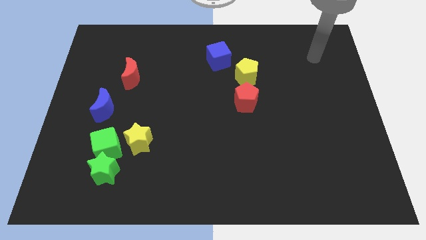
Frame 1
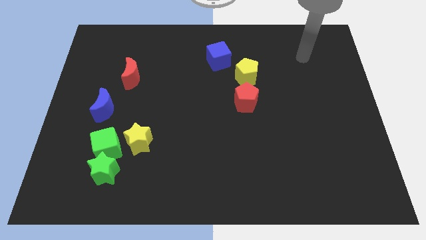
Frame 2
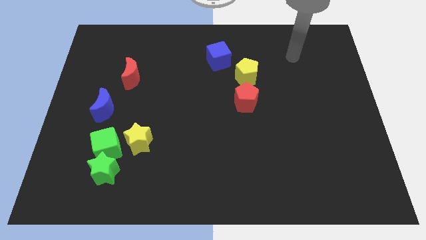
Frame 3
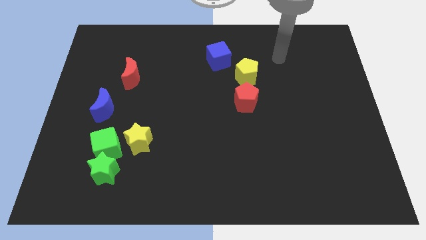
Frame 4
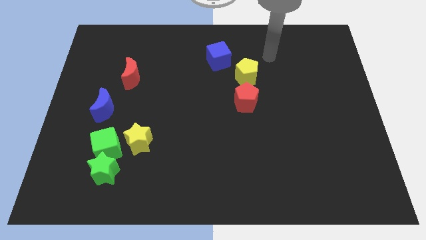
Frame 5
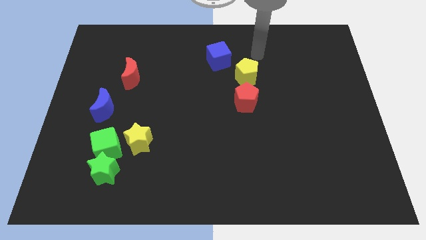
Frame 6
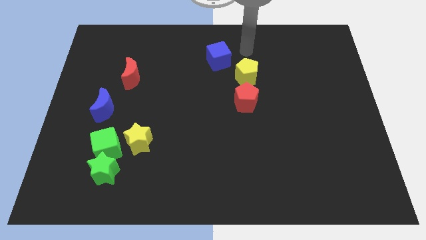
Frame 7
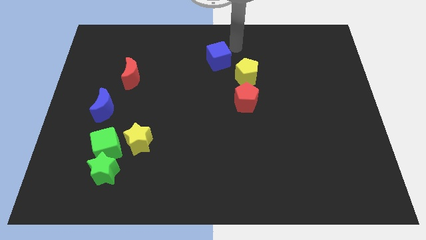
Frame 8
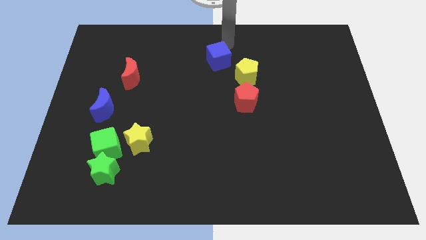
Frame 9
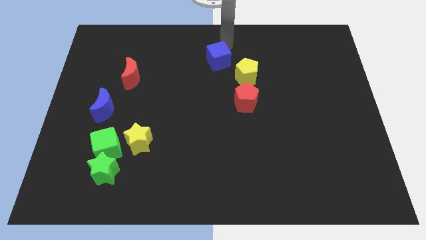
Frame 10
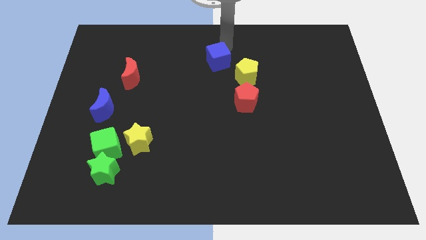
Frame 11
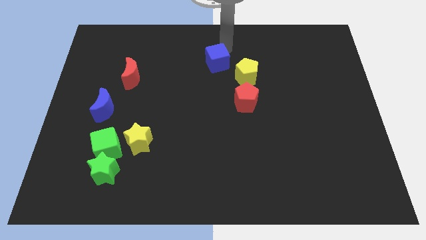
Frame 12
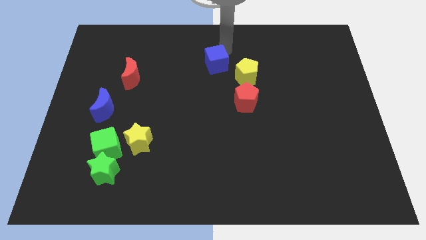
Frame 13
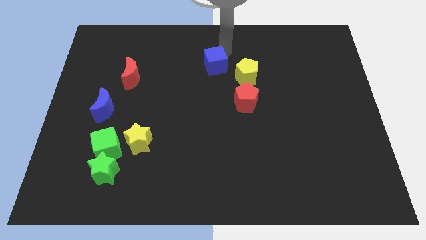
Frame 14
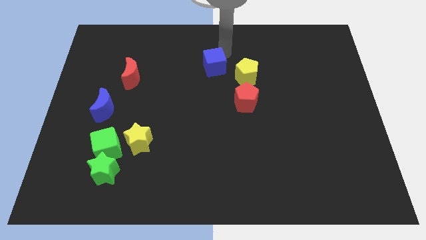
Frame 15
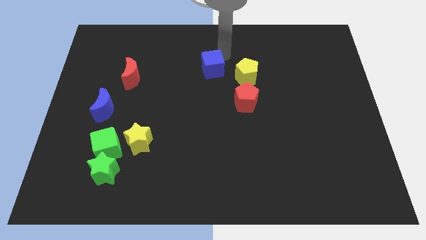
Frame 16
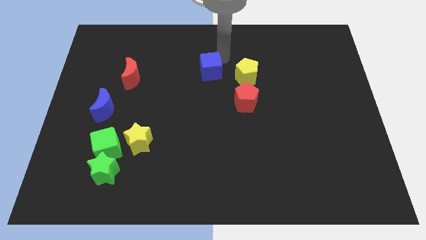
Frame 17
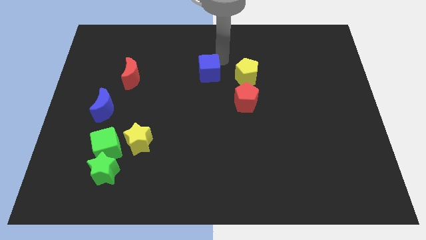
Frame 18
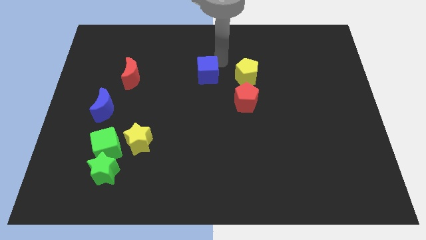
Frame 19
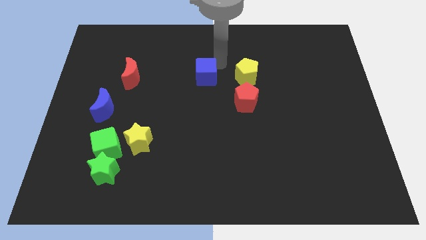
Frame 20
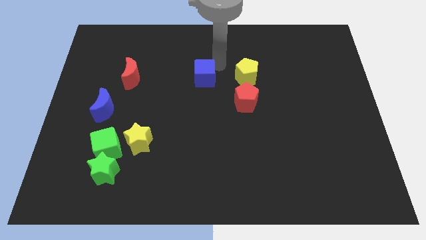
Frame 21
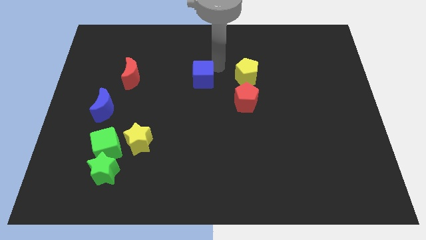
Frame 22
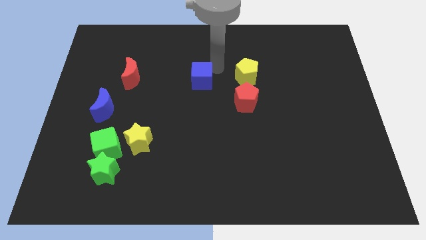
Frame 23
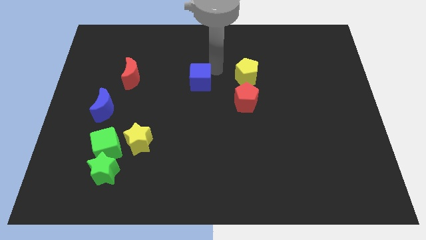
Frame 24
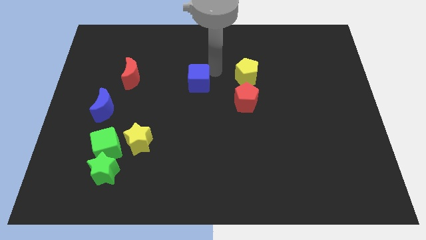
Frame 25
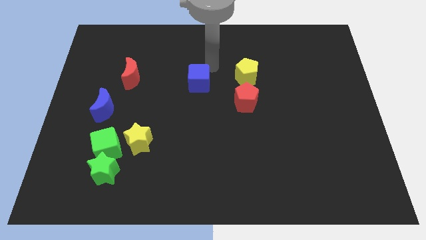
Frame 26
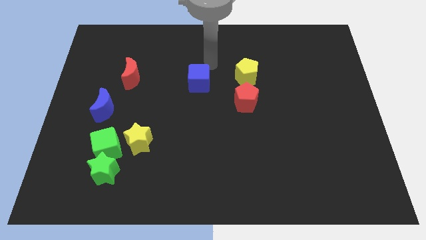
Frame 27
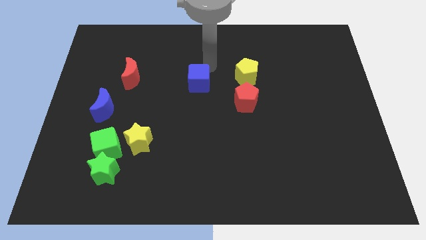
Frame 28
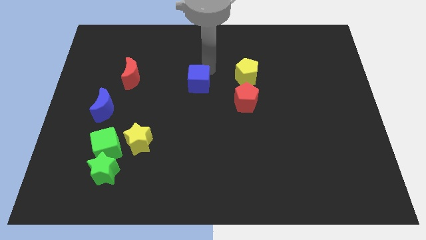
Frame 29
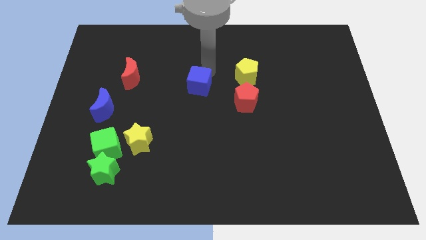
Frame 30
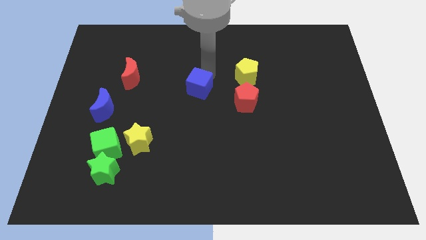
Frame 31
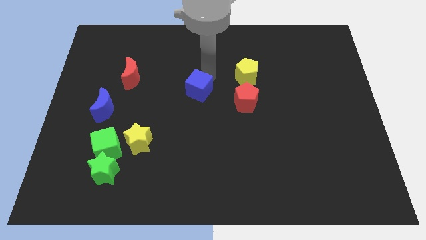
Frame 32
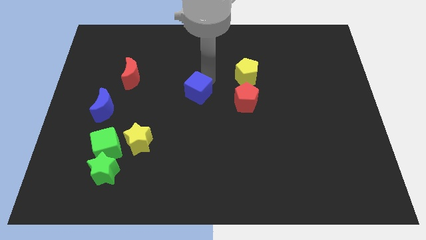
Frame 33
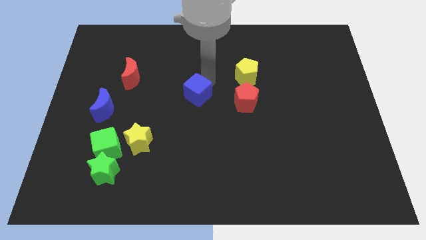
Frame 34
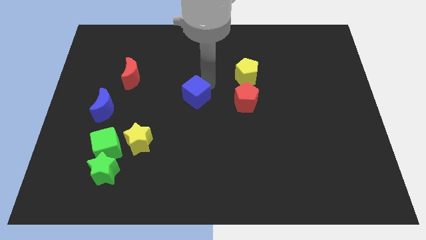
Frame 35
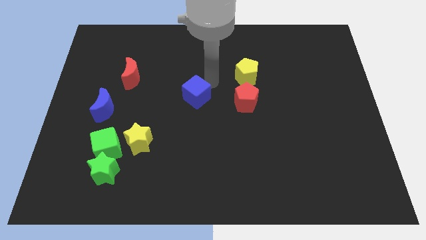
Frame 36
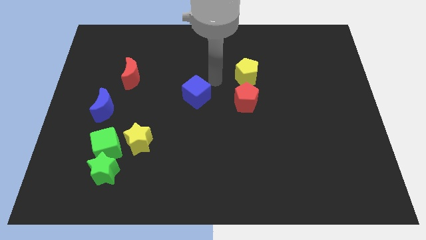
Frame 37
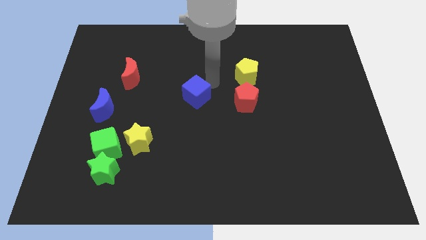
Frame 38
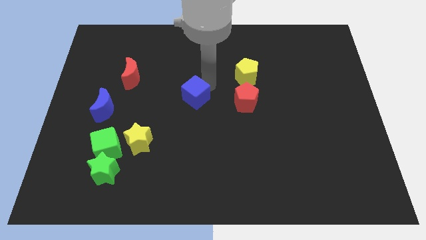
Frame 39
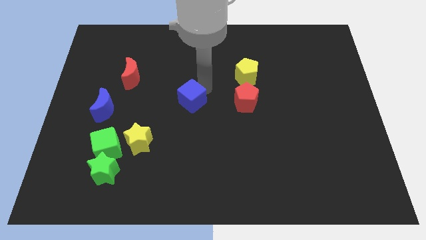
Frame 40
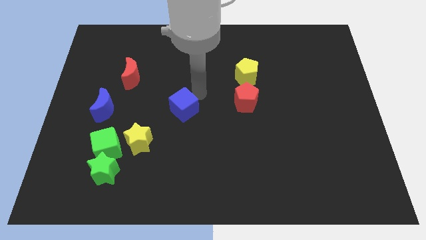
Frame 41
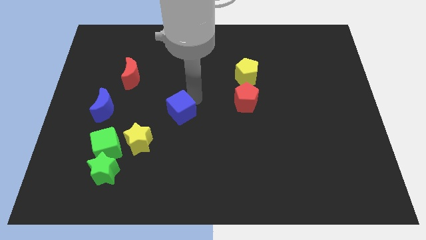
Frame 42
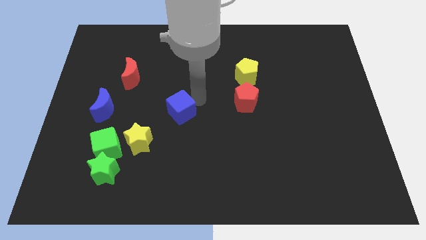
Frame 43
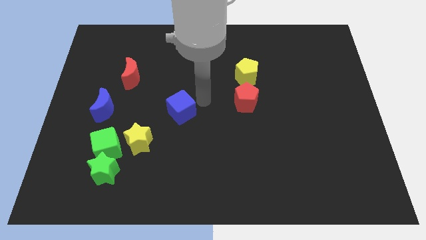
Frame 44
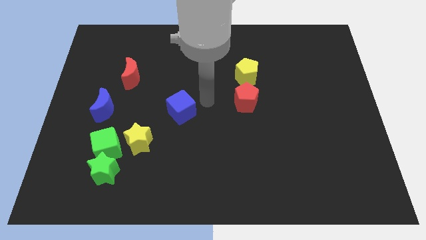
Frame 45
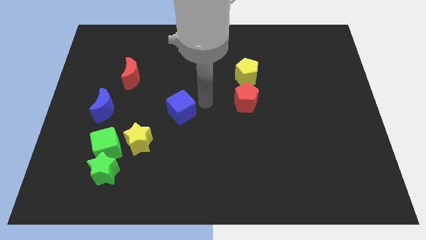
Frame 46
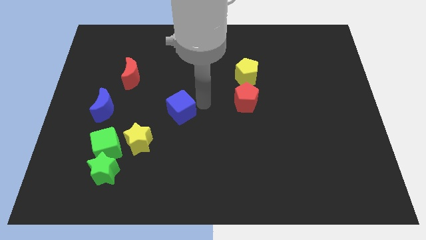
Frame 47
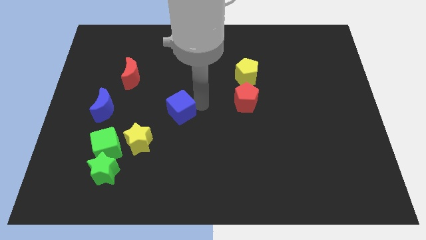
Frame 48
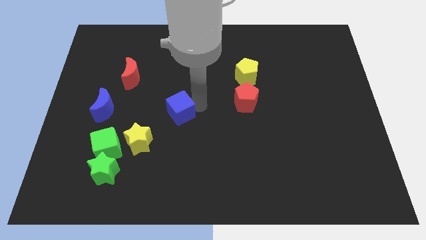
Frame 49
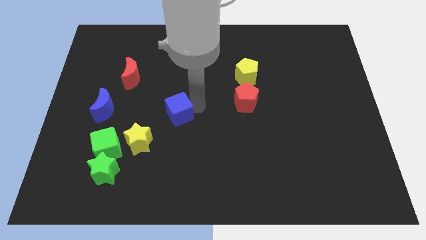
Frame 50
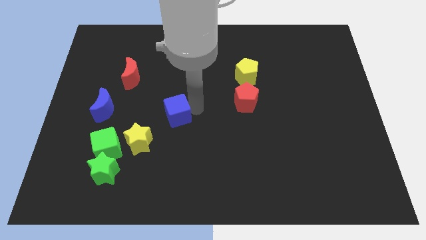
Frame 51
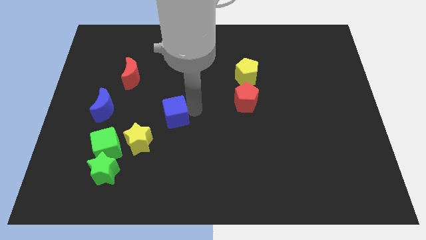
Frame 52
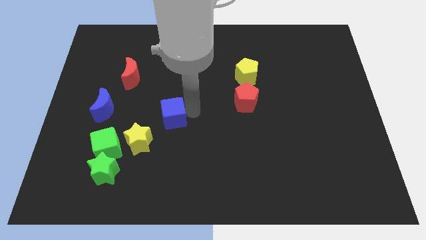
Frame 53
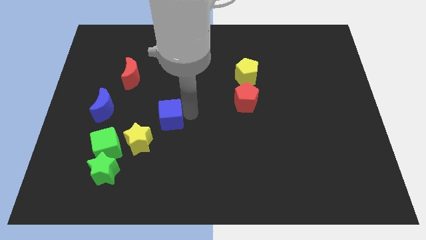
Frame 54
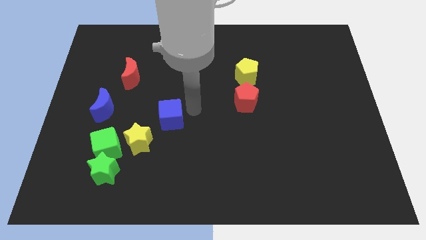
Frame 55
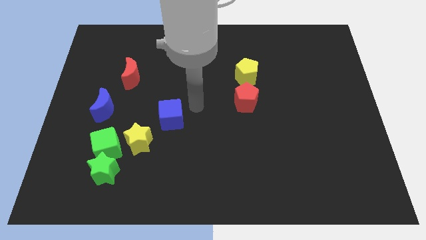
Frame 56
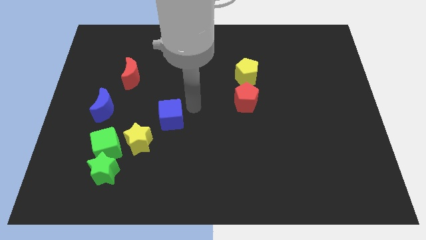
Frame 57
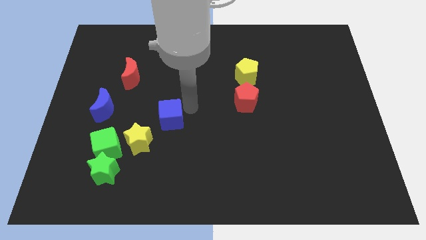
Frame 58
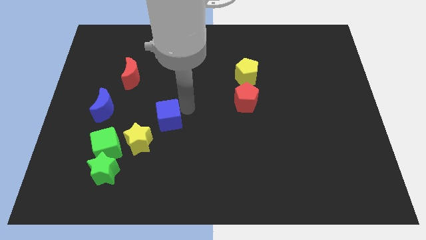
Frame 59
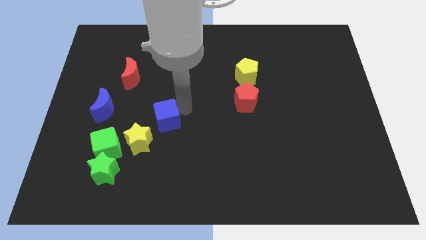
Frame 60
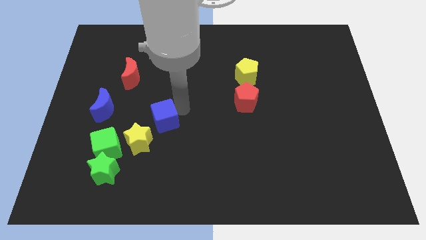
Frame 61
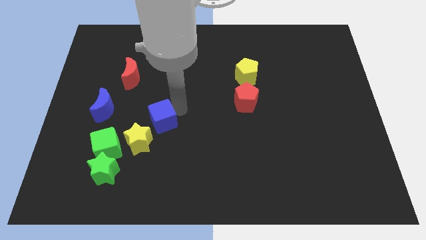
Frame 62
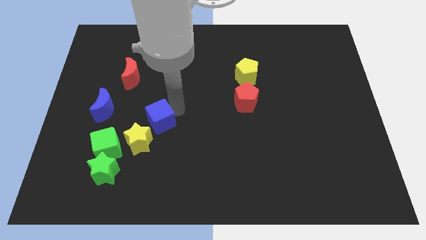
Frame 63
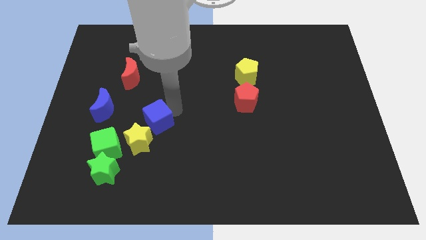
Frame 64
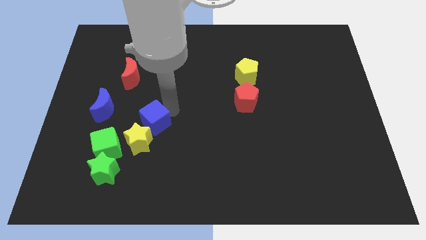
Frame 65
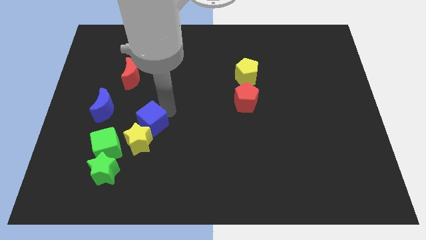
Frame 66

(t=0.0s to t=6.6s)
slide the blue cube close to the yellow star

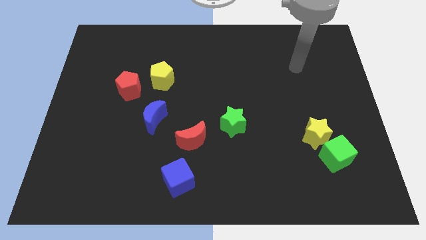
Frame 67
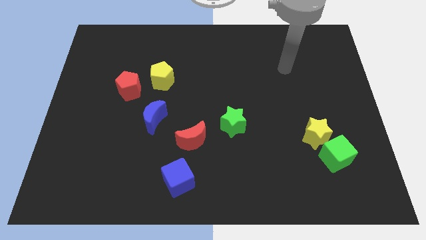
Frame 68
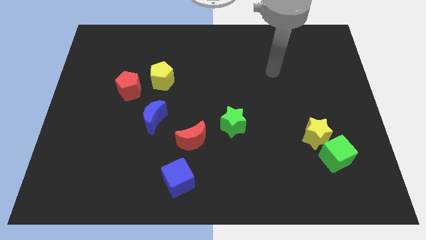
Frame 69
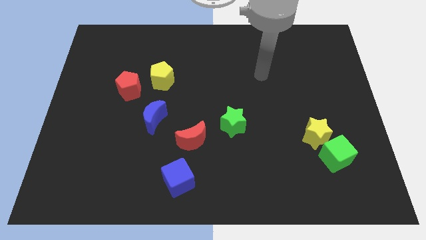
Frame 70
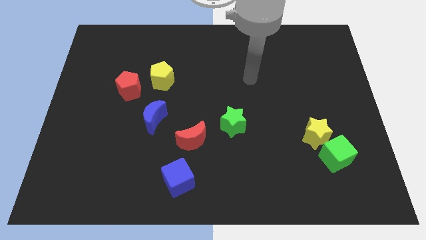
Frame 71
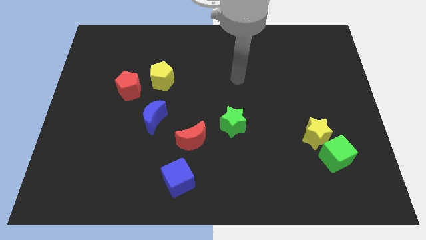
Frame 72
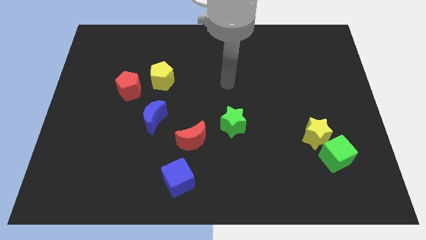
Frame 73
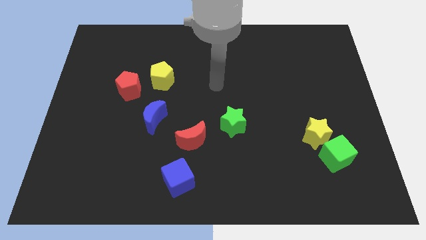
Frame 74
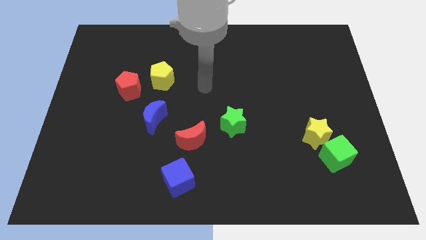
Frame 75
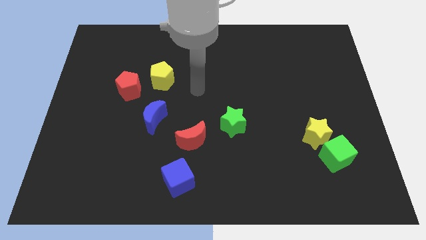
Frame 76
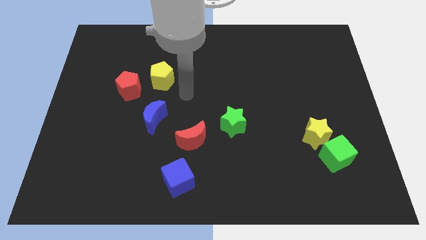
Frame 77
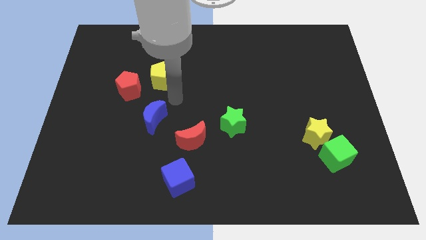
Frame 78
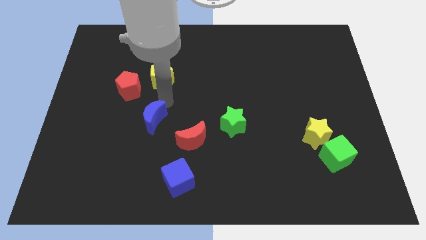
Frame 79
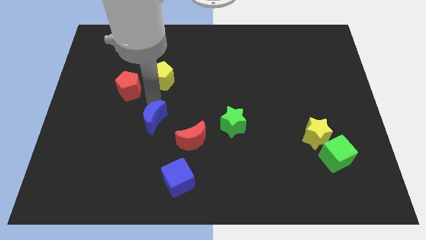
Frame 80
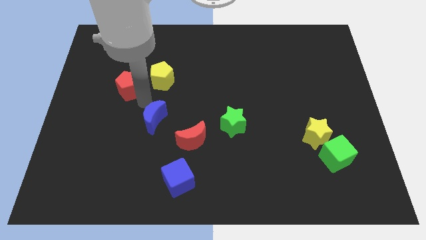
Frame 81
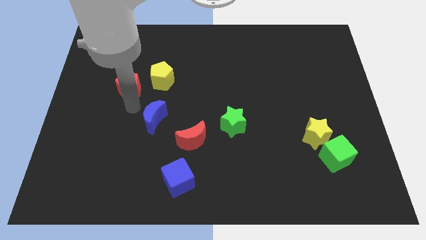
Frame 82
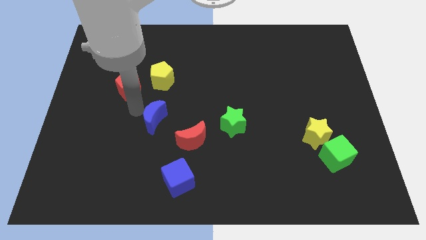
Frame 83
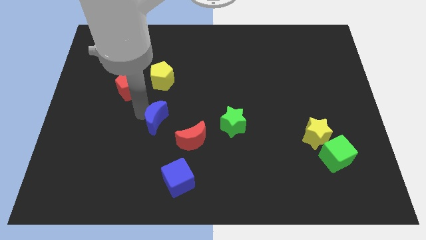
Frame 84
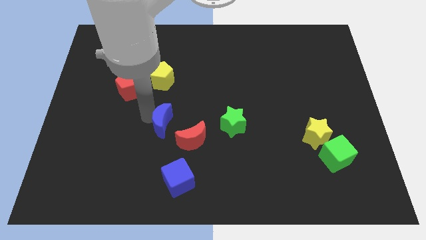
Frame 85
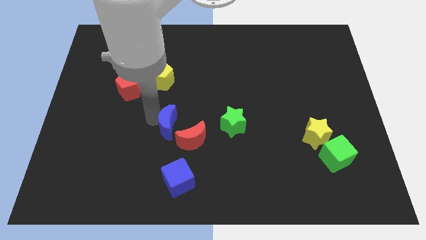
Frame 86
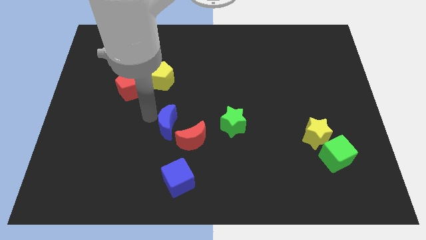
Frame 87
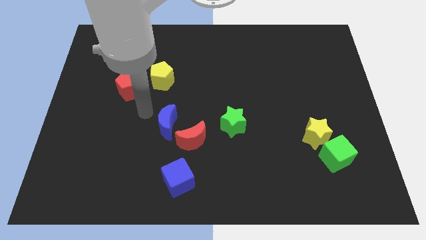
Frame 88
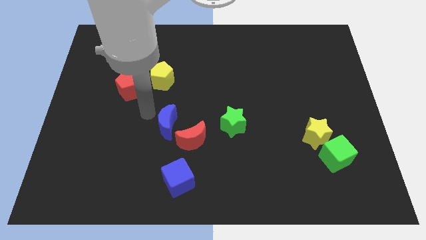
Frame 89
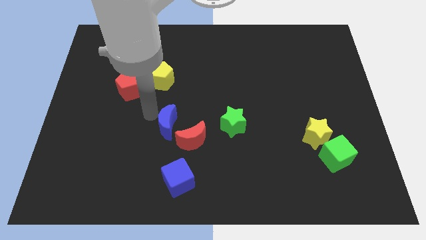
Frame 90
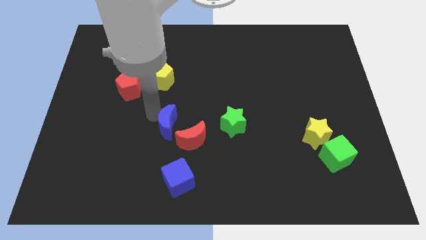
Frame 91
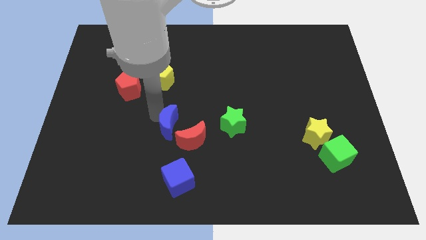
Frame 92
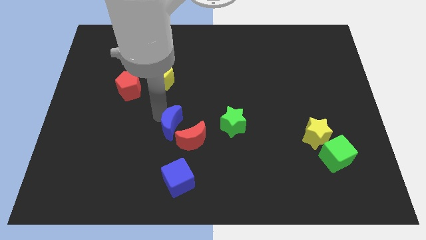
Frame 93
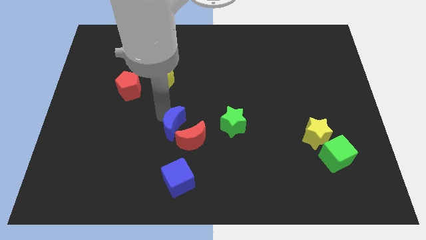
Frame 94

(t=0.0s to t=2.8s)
push the blue moon to the red moon
